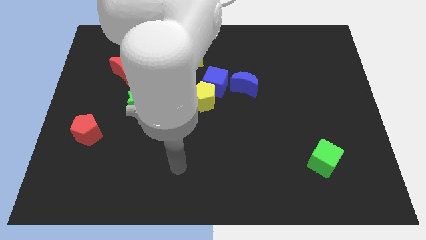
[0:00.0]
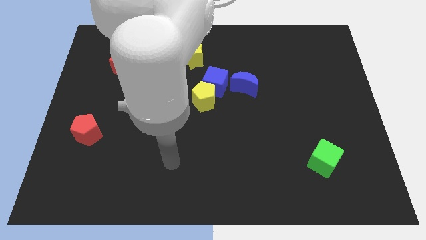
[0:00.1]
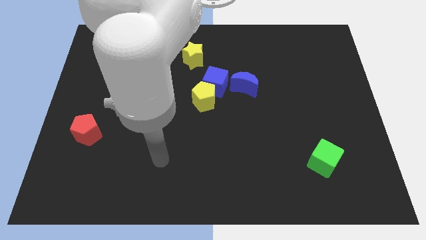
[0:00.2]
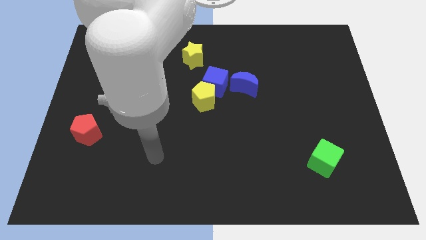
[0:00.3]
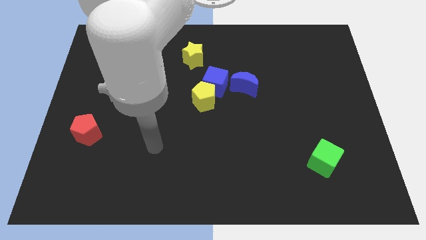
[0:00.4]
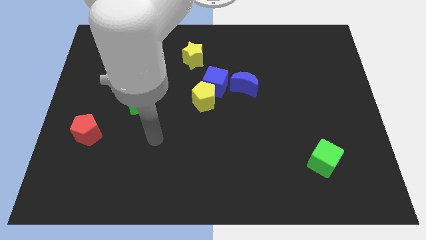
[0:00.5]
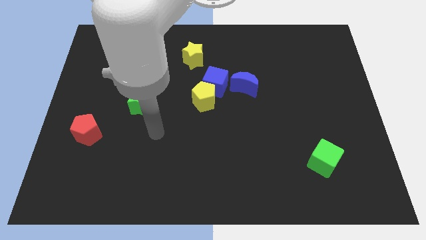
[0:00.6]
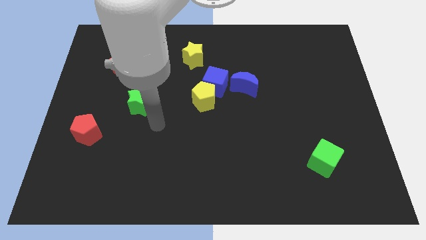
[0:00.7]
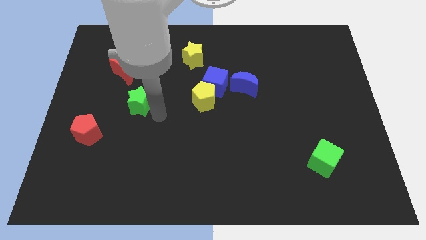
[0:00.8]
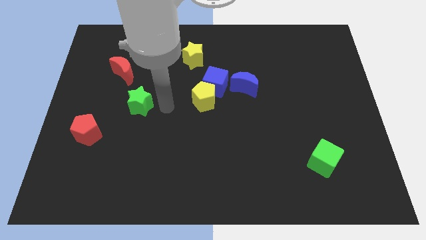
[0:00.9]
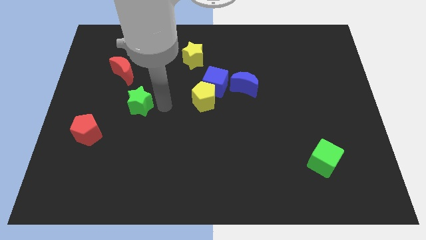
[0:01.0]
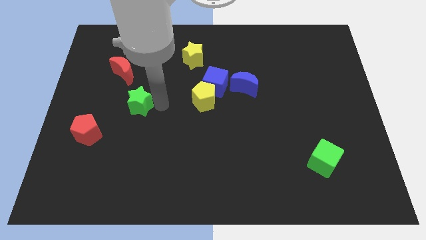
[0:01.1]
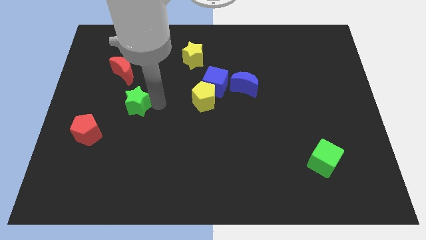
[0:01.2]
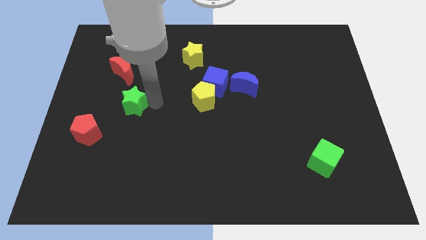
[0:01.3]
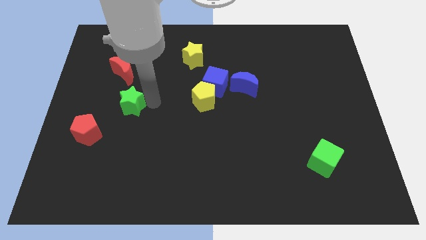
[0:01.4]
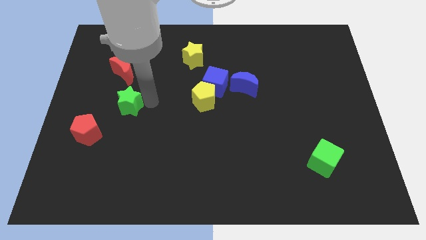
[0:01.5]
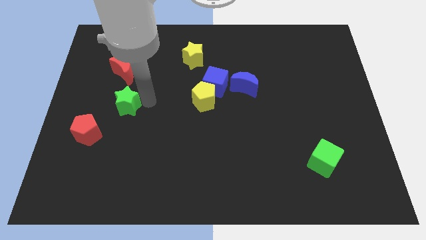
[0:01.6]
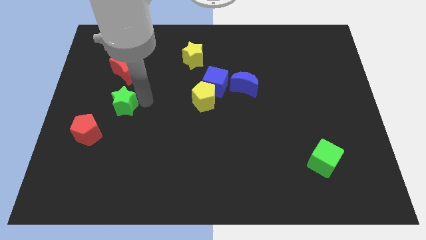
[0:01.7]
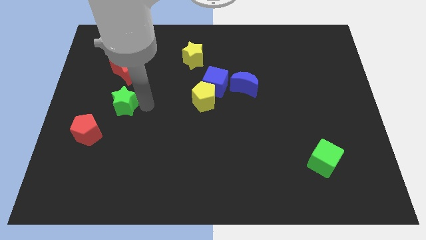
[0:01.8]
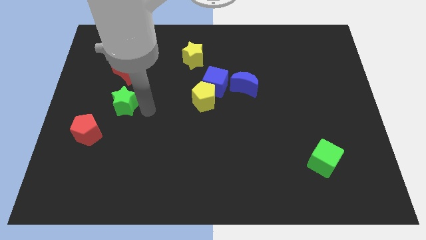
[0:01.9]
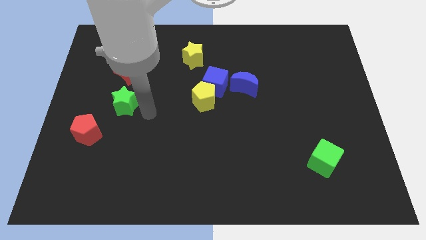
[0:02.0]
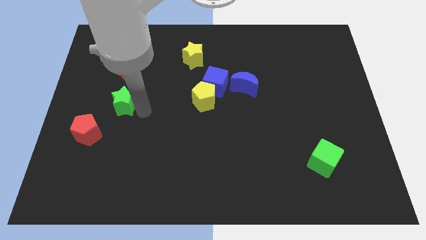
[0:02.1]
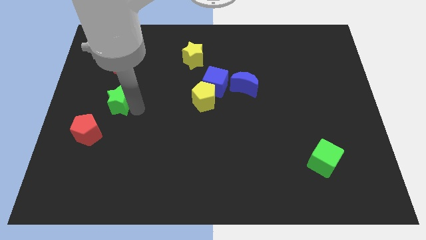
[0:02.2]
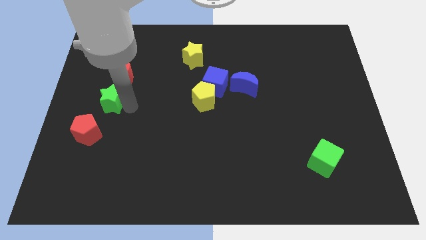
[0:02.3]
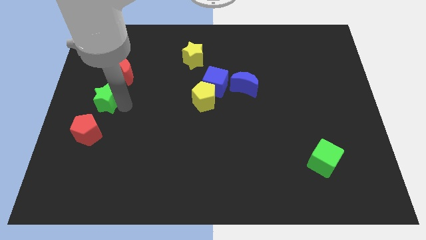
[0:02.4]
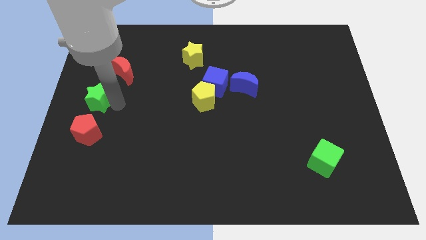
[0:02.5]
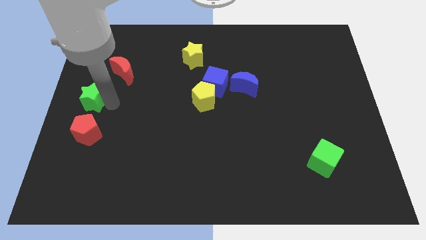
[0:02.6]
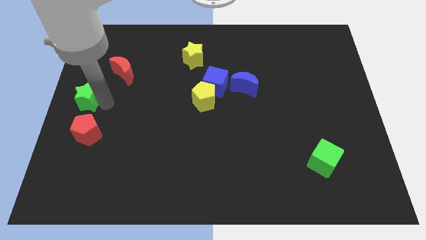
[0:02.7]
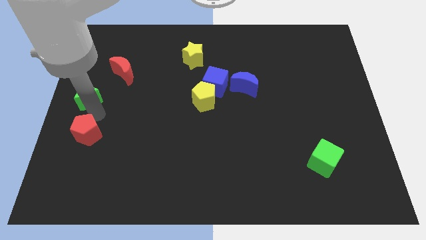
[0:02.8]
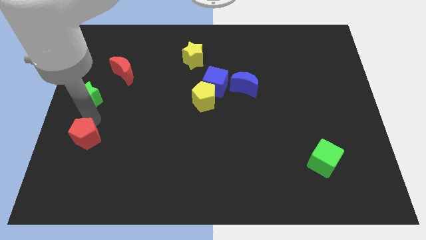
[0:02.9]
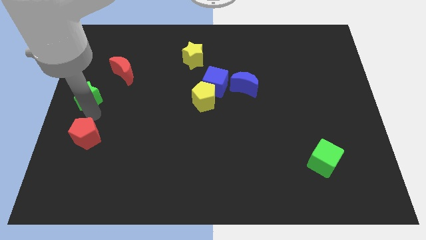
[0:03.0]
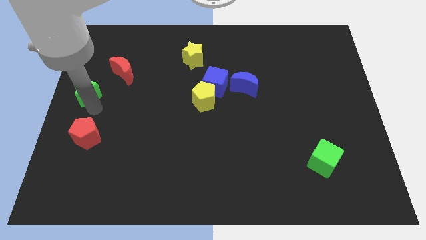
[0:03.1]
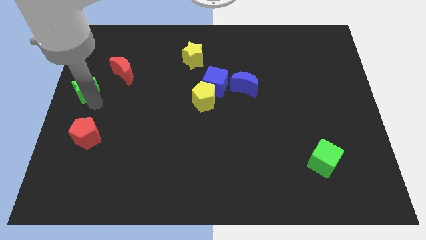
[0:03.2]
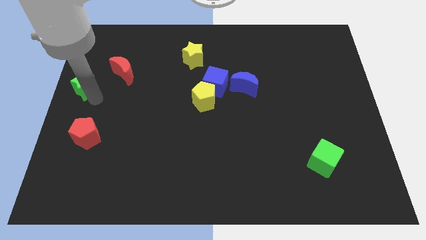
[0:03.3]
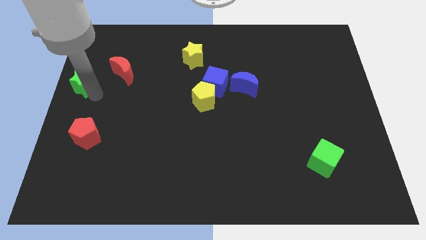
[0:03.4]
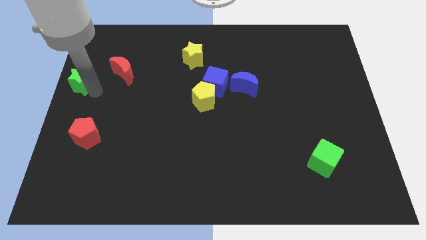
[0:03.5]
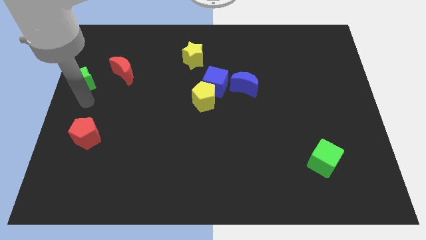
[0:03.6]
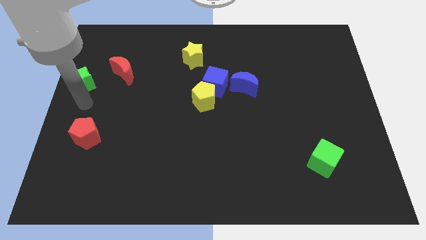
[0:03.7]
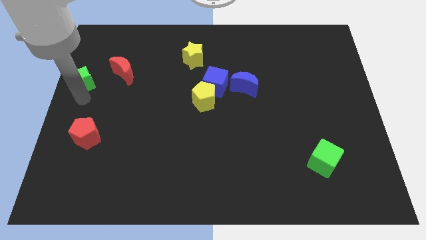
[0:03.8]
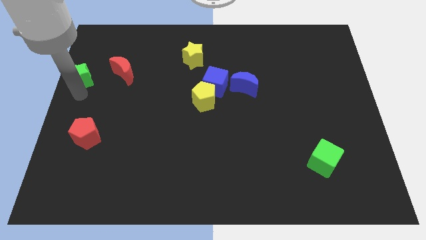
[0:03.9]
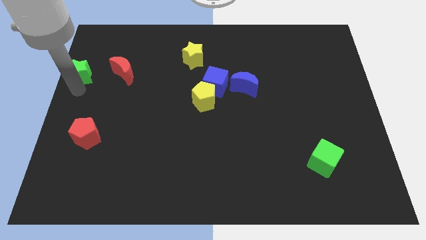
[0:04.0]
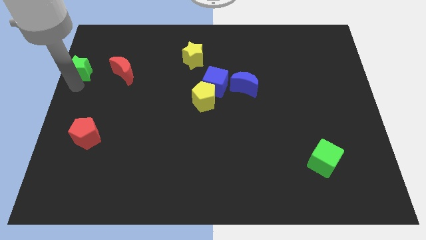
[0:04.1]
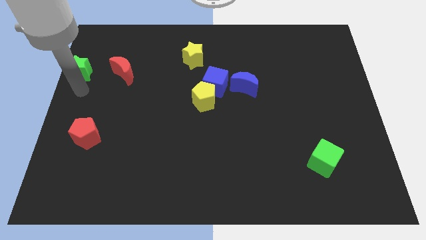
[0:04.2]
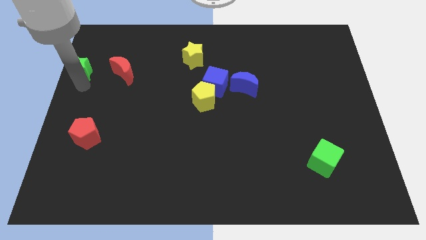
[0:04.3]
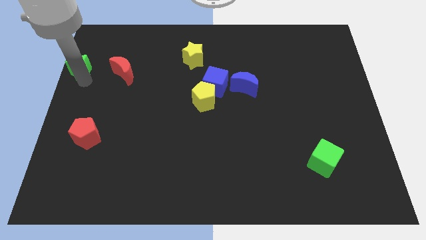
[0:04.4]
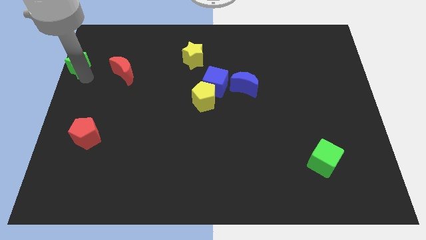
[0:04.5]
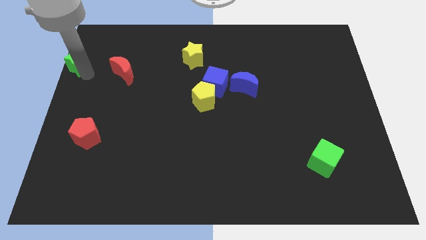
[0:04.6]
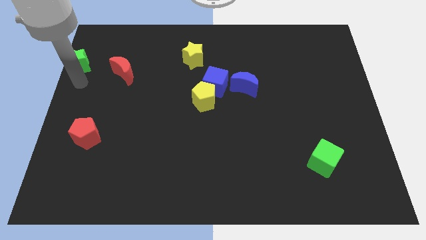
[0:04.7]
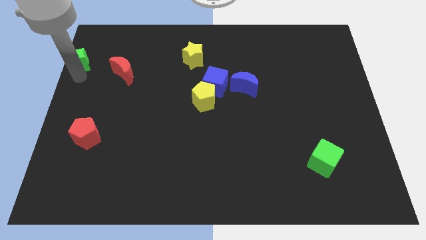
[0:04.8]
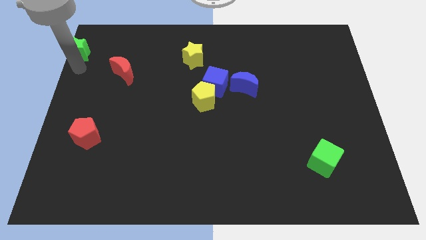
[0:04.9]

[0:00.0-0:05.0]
put the green star to the top left corner

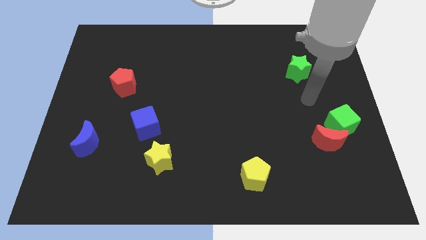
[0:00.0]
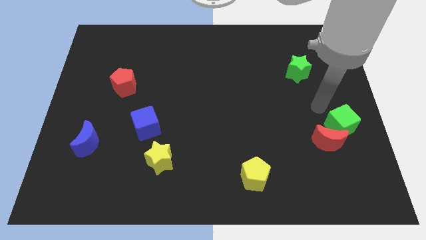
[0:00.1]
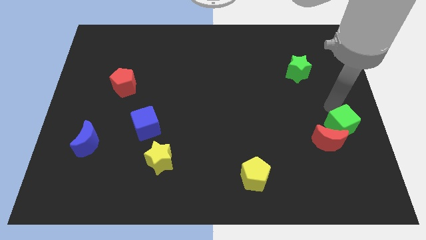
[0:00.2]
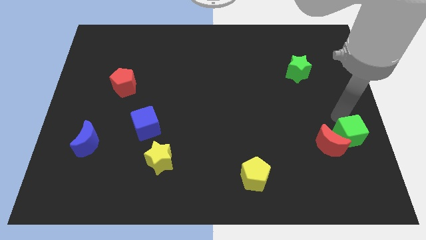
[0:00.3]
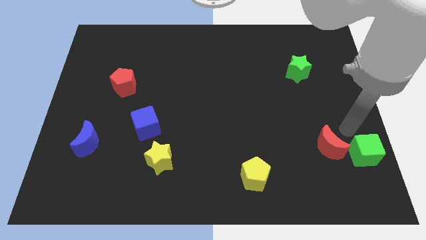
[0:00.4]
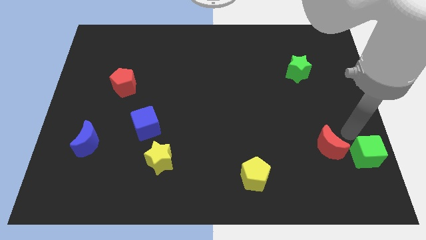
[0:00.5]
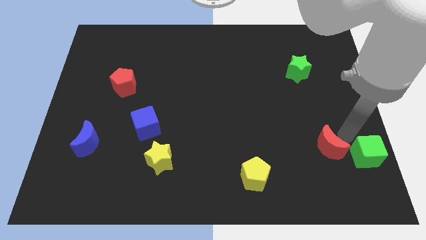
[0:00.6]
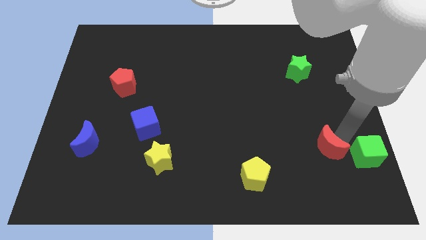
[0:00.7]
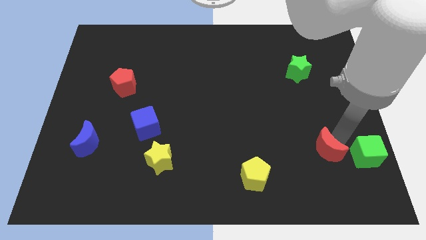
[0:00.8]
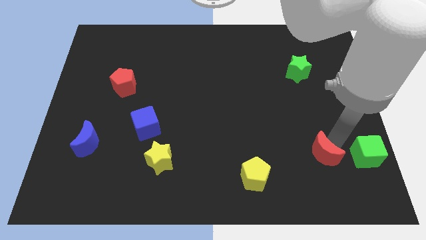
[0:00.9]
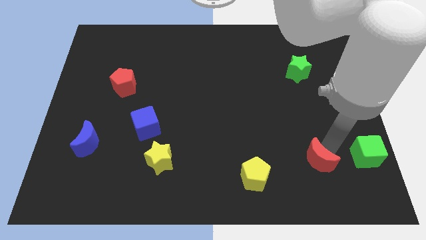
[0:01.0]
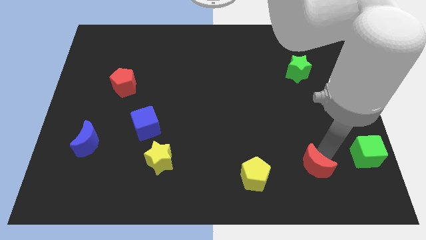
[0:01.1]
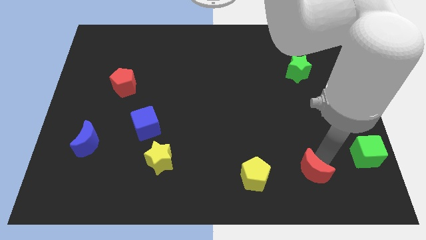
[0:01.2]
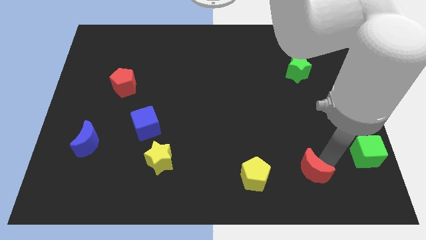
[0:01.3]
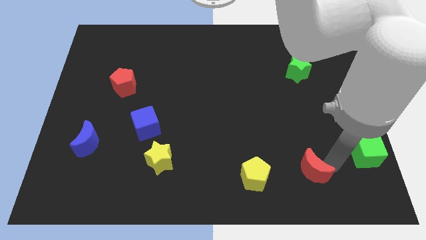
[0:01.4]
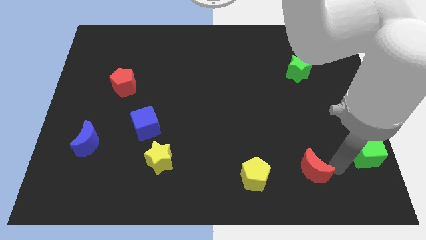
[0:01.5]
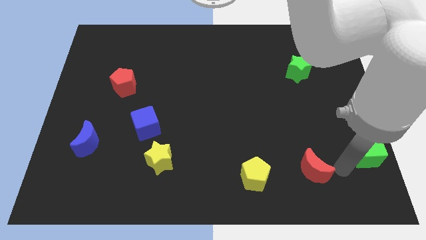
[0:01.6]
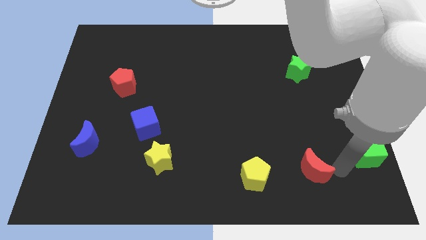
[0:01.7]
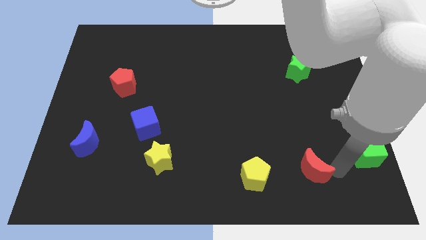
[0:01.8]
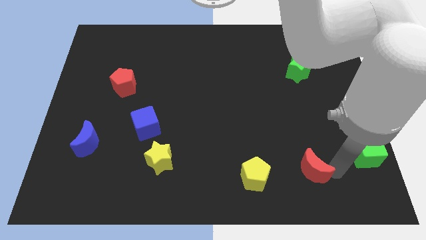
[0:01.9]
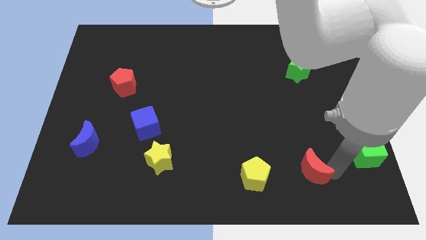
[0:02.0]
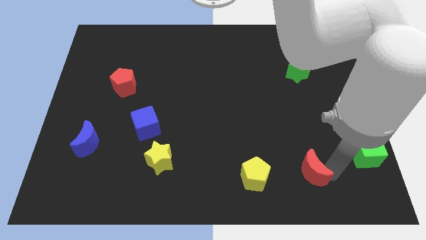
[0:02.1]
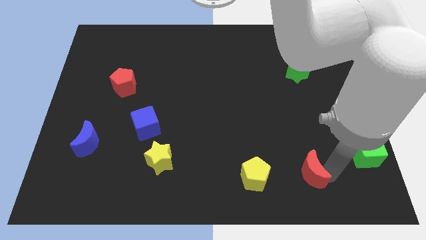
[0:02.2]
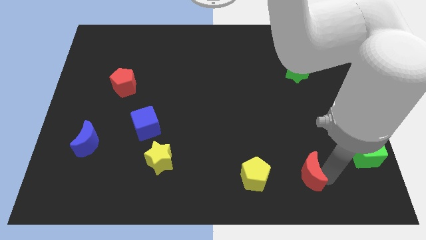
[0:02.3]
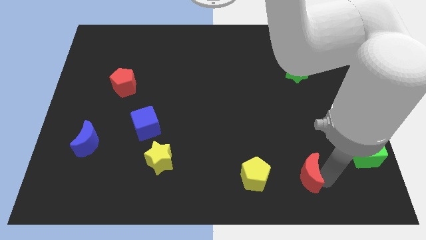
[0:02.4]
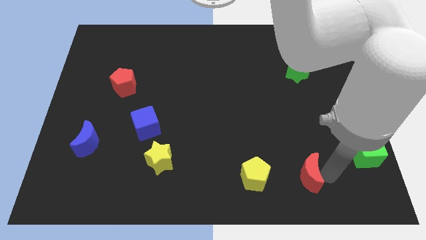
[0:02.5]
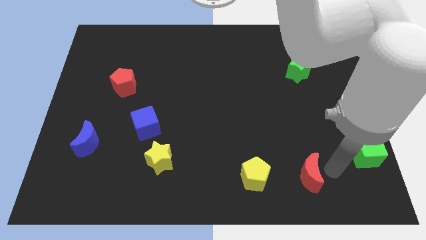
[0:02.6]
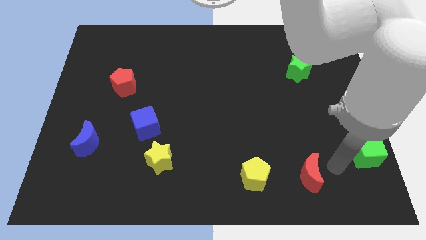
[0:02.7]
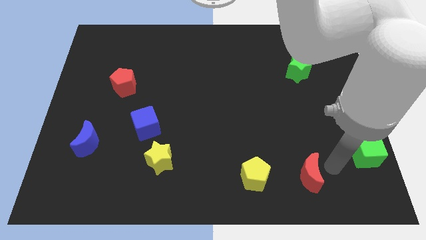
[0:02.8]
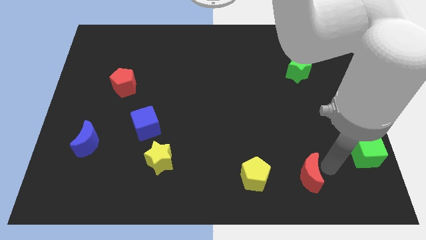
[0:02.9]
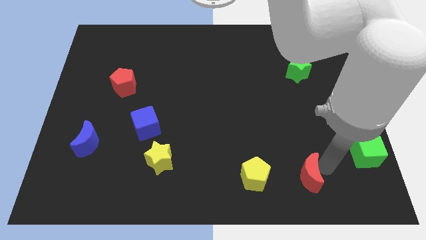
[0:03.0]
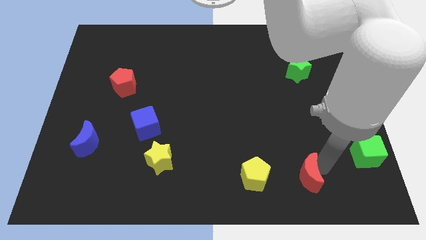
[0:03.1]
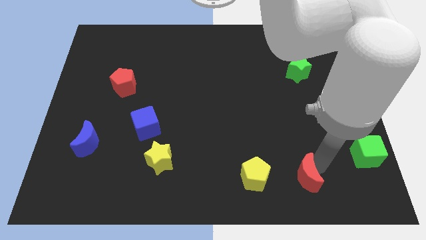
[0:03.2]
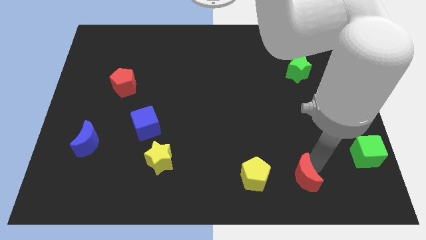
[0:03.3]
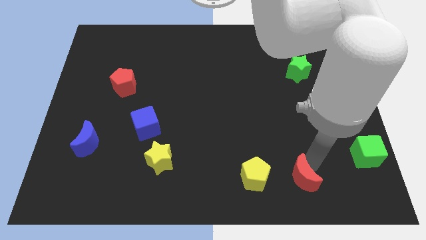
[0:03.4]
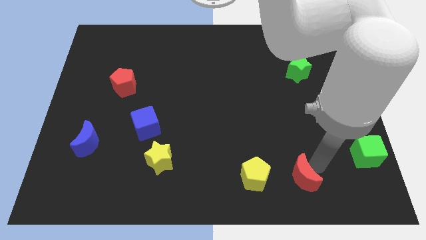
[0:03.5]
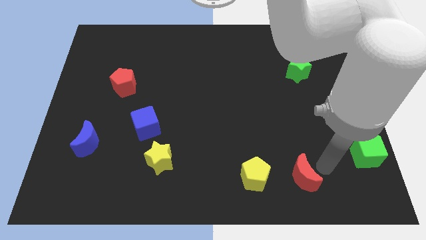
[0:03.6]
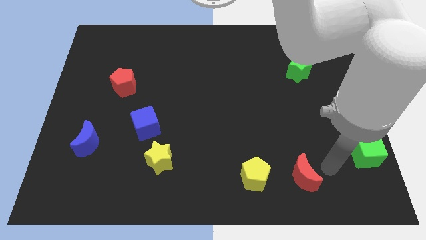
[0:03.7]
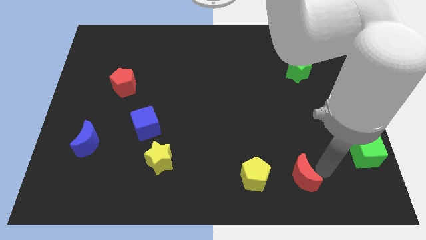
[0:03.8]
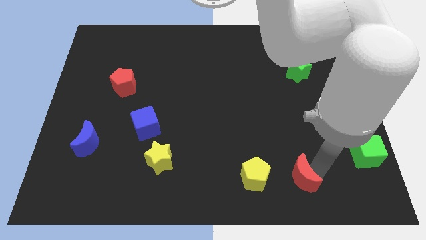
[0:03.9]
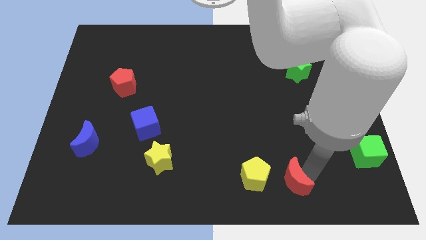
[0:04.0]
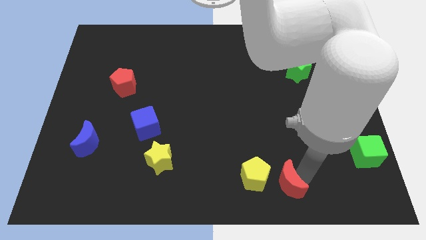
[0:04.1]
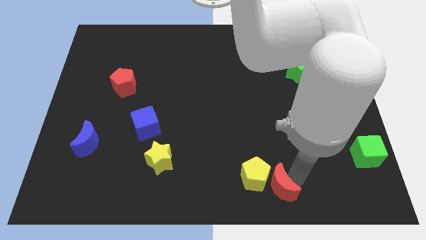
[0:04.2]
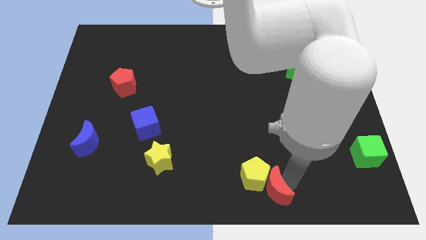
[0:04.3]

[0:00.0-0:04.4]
slide the red moon to the bottom
